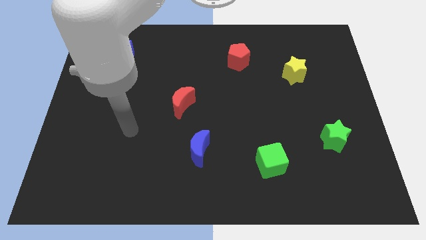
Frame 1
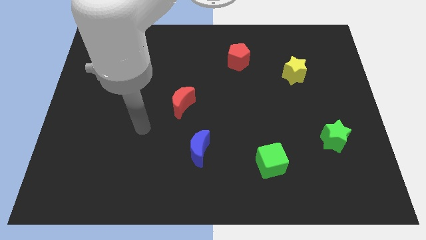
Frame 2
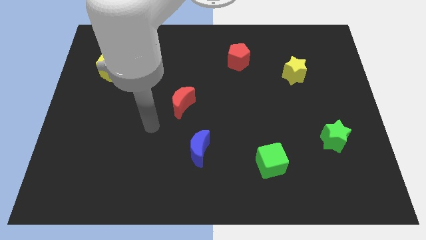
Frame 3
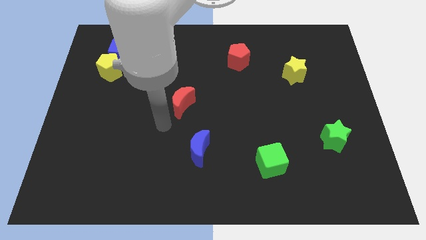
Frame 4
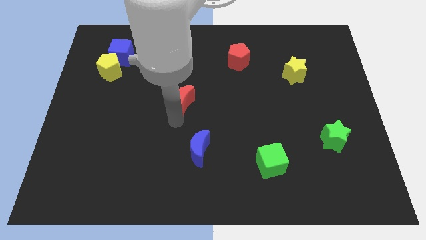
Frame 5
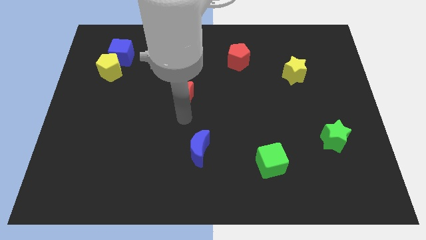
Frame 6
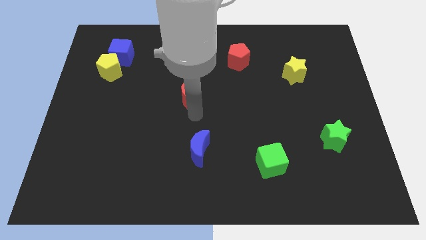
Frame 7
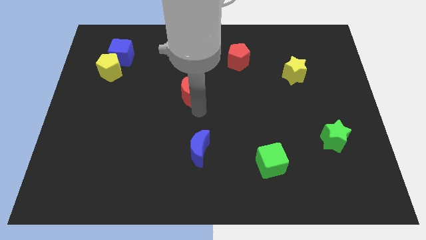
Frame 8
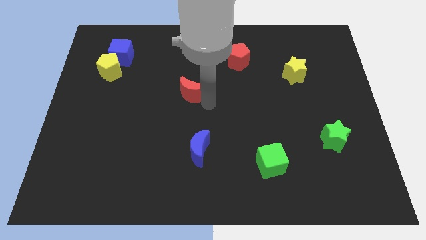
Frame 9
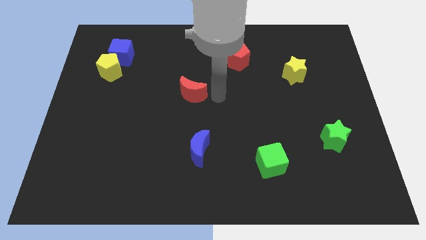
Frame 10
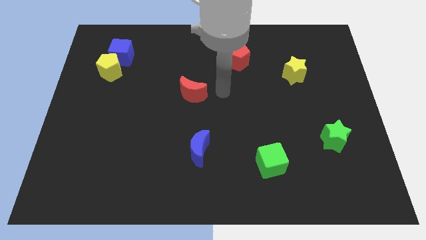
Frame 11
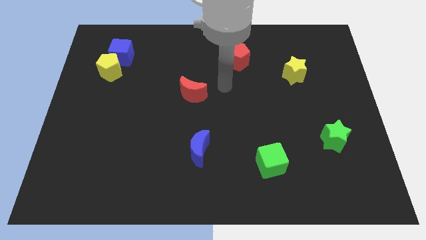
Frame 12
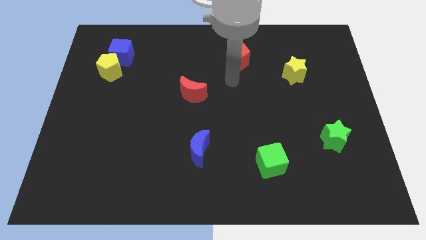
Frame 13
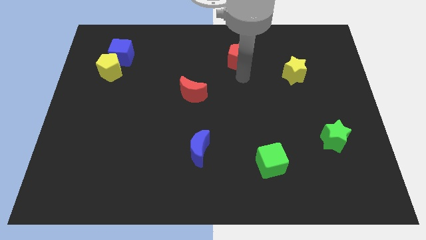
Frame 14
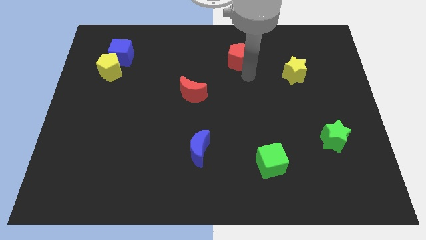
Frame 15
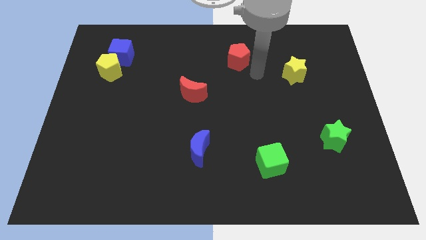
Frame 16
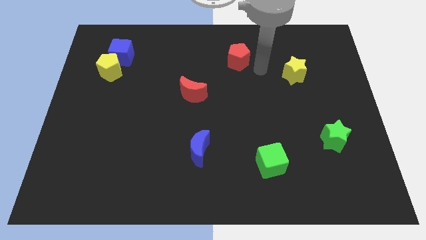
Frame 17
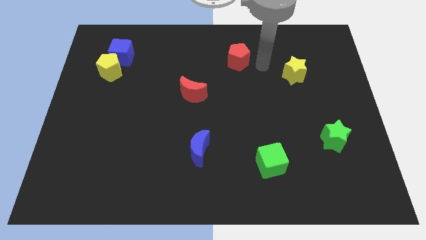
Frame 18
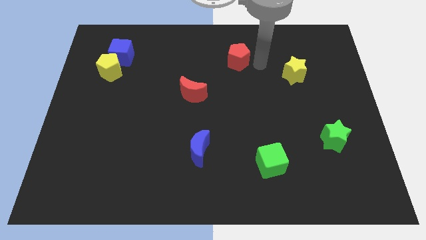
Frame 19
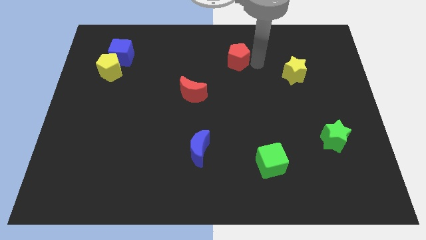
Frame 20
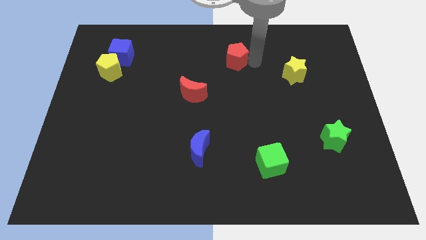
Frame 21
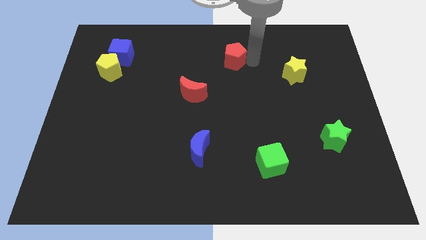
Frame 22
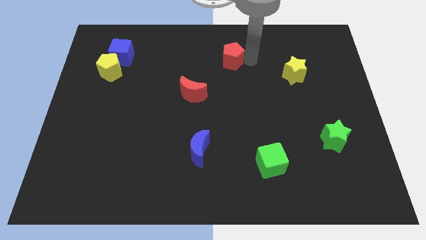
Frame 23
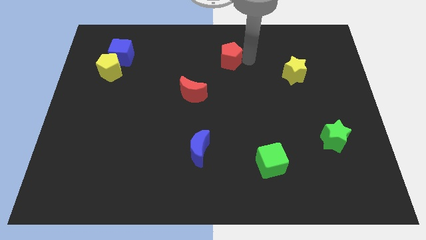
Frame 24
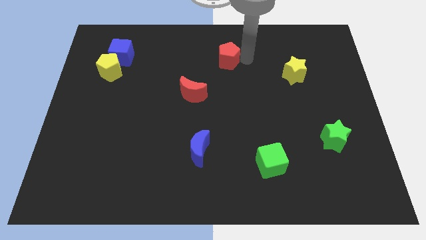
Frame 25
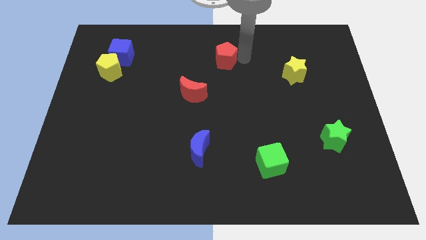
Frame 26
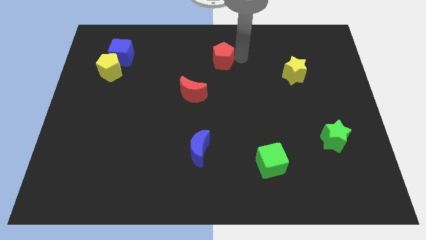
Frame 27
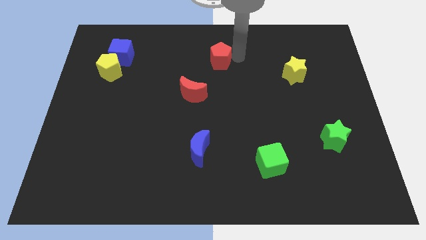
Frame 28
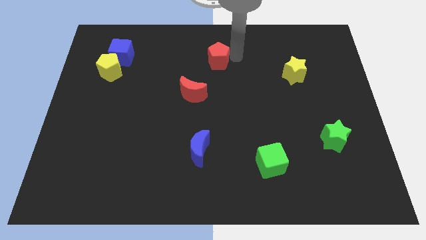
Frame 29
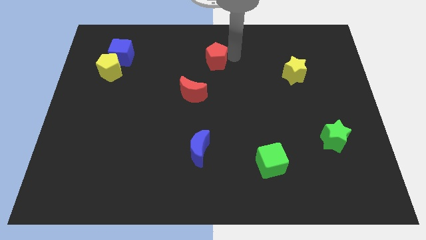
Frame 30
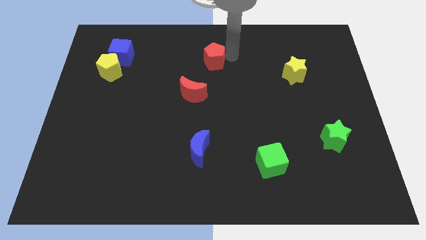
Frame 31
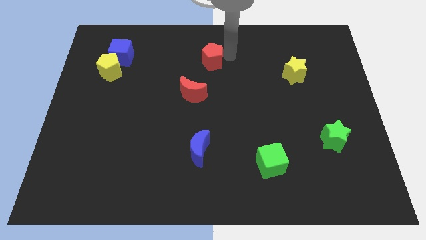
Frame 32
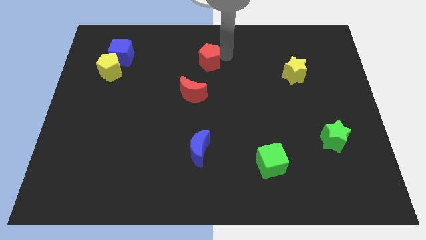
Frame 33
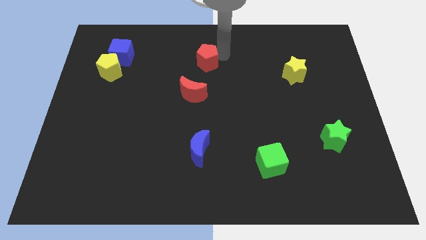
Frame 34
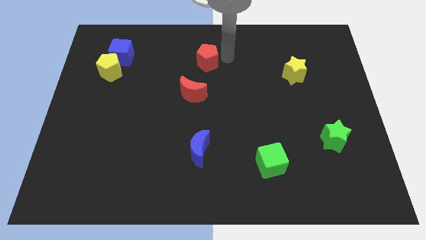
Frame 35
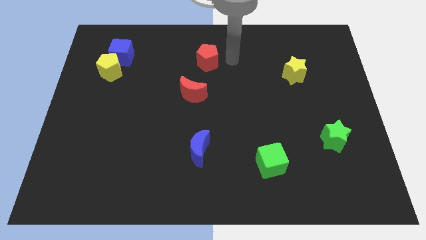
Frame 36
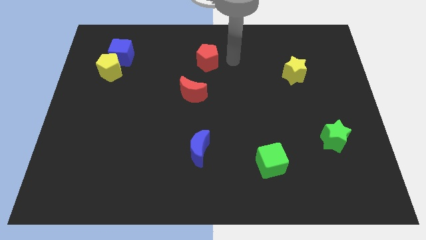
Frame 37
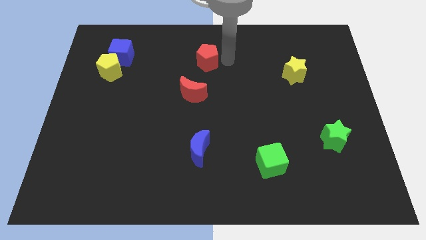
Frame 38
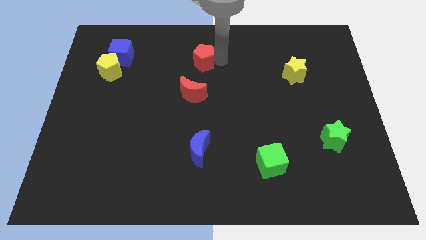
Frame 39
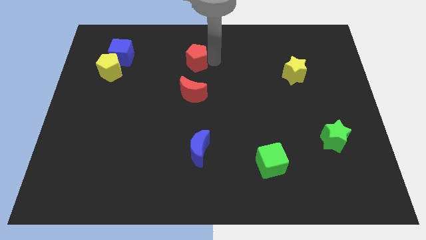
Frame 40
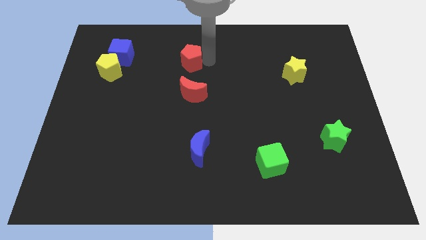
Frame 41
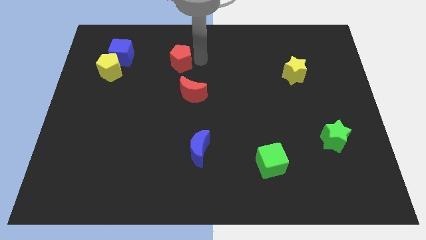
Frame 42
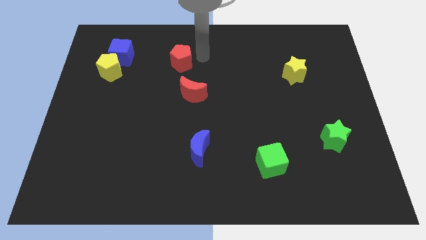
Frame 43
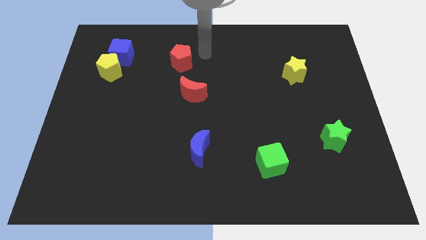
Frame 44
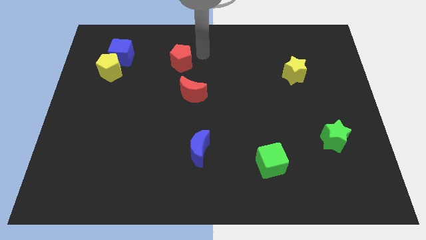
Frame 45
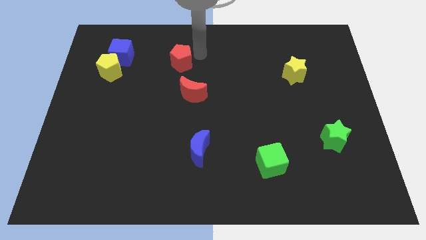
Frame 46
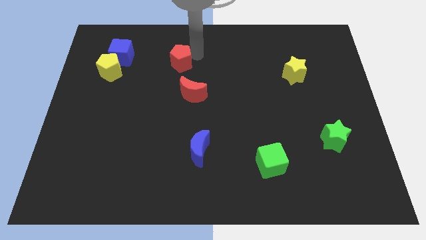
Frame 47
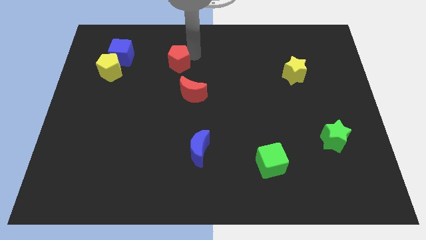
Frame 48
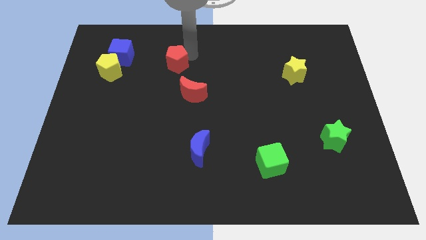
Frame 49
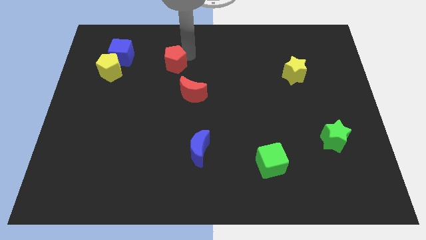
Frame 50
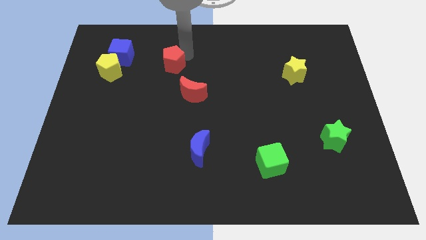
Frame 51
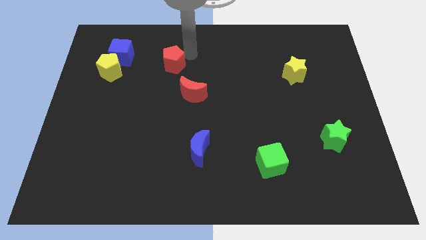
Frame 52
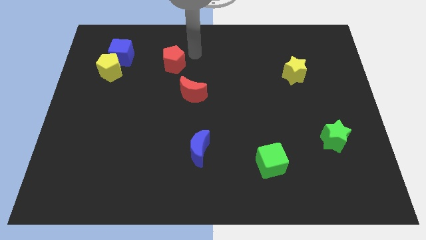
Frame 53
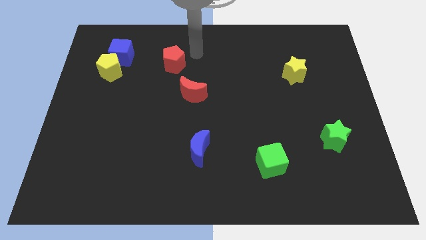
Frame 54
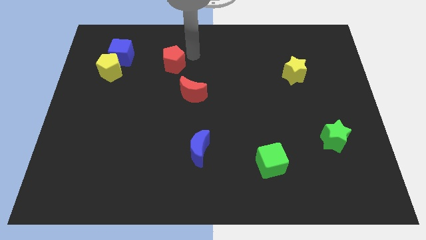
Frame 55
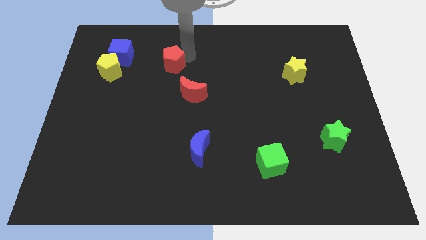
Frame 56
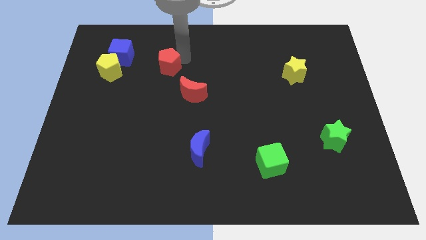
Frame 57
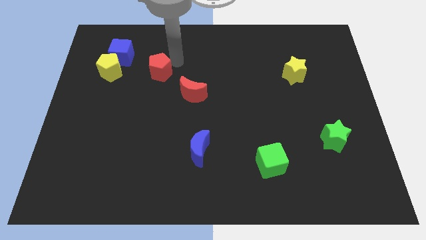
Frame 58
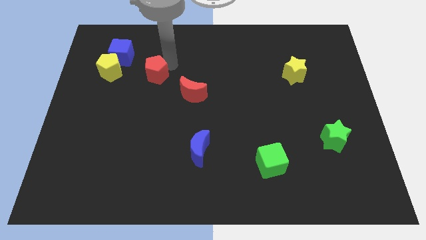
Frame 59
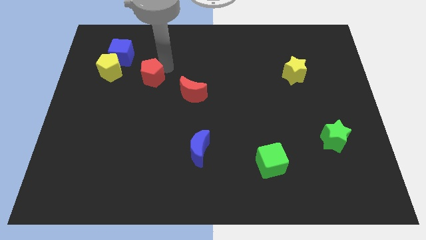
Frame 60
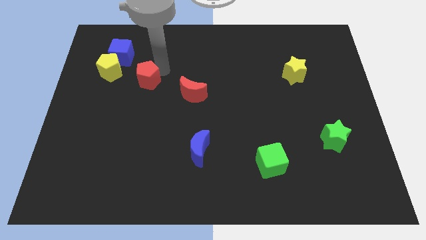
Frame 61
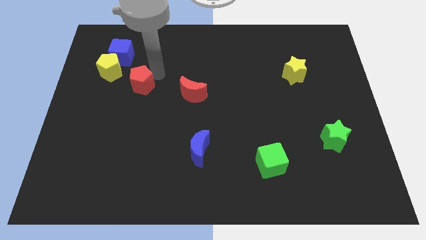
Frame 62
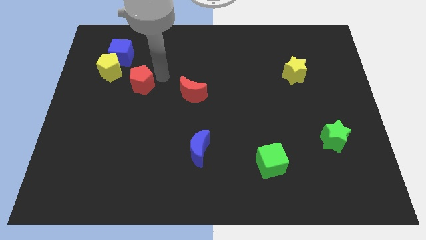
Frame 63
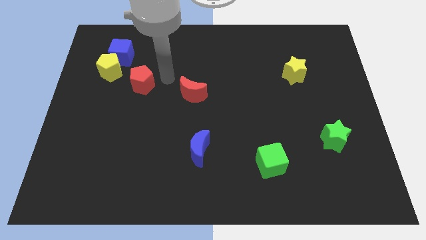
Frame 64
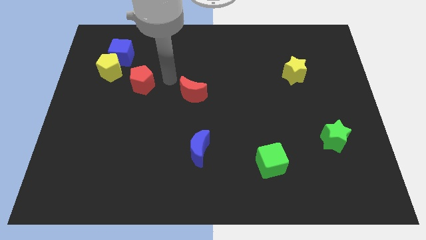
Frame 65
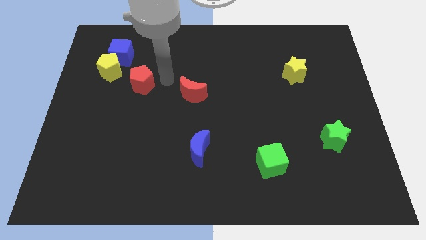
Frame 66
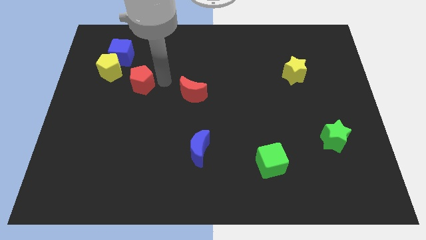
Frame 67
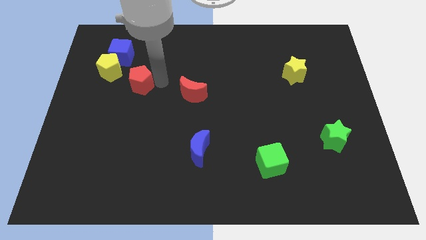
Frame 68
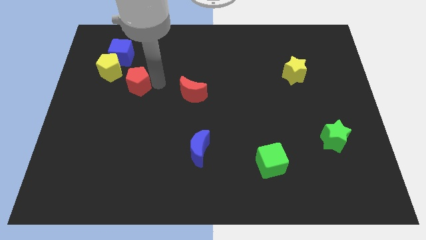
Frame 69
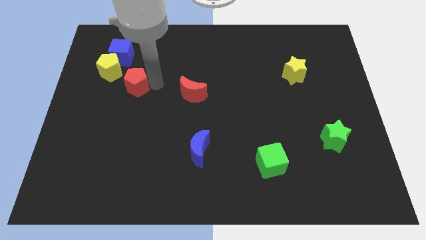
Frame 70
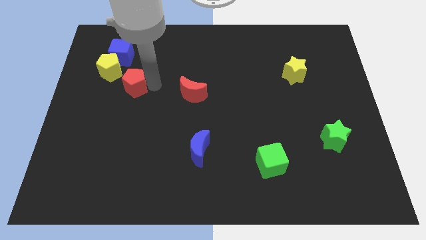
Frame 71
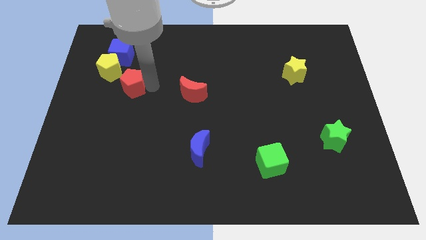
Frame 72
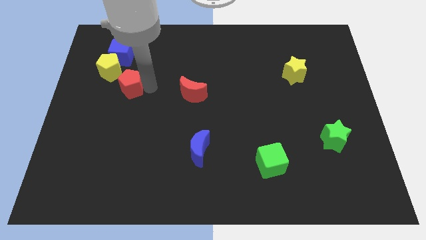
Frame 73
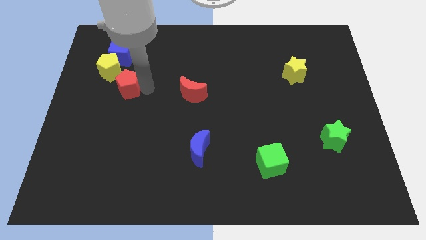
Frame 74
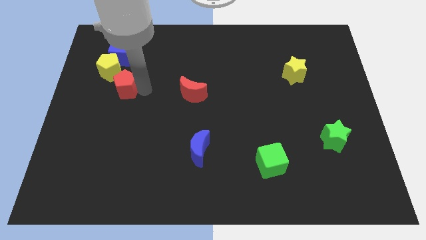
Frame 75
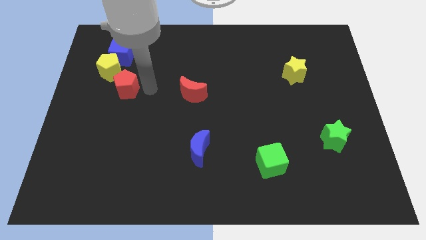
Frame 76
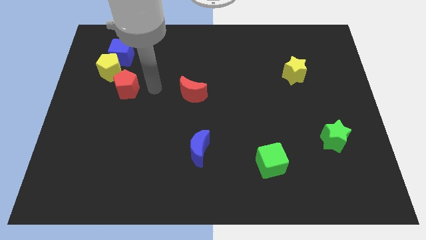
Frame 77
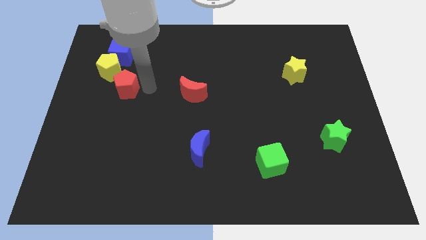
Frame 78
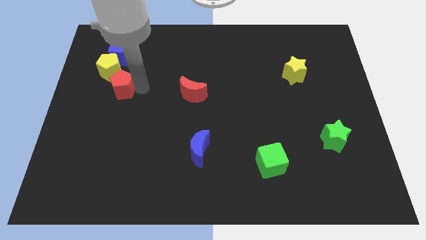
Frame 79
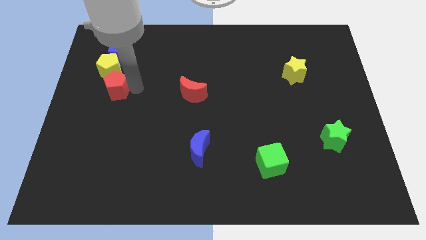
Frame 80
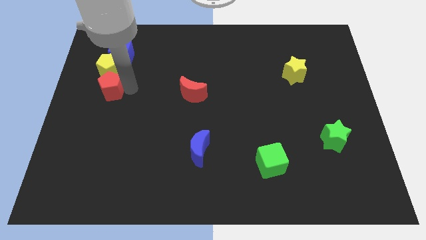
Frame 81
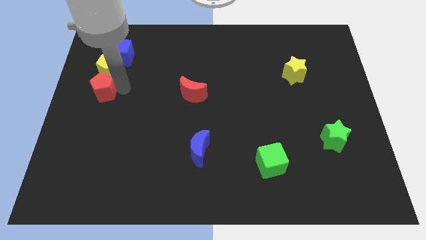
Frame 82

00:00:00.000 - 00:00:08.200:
slide the red pentagon to the left side
